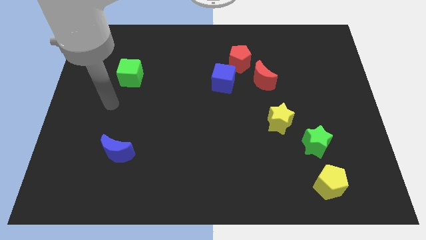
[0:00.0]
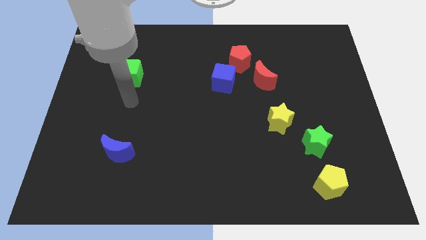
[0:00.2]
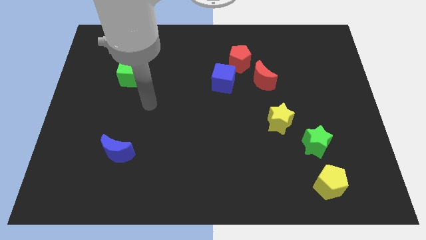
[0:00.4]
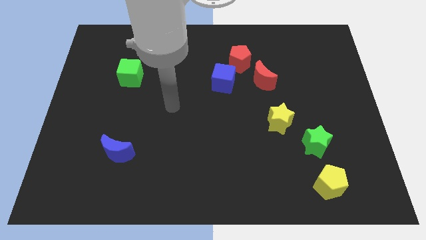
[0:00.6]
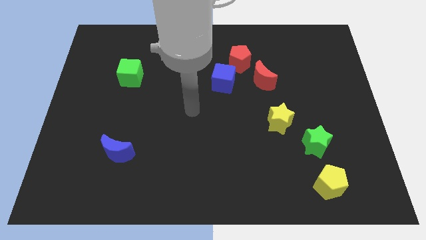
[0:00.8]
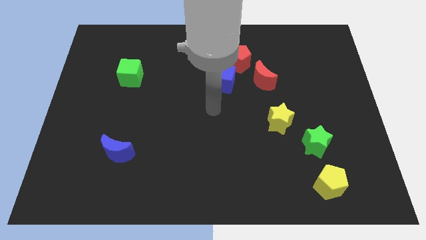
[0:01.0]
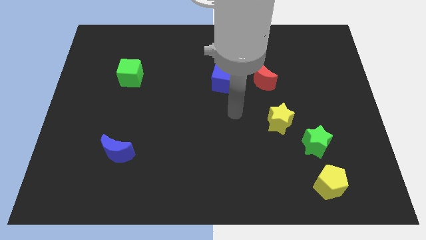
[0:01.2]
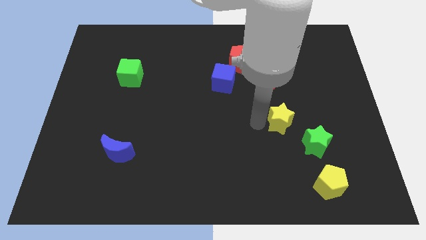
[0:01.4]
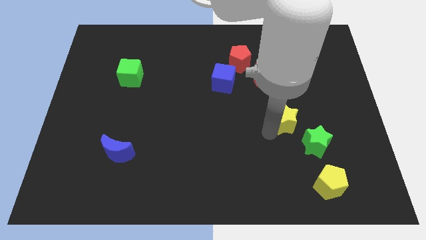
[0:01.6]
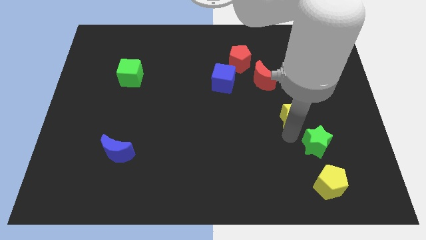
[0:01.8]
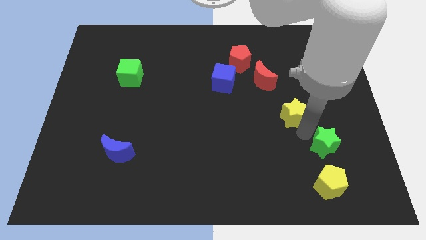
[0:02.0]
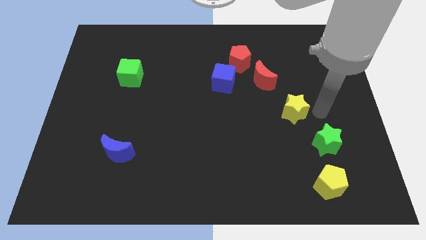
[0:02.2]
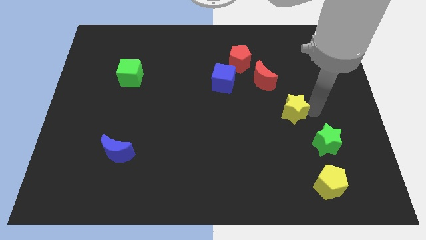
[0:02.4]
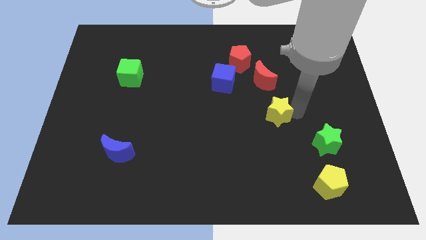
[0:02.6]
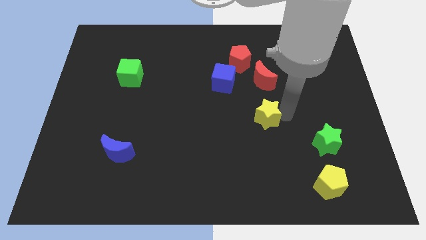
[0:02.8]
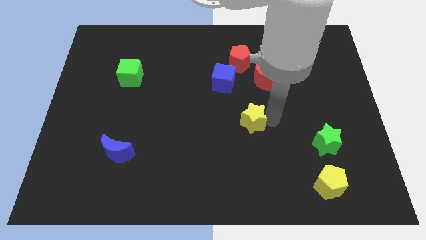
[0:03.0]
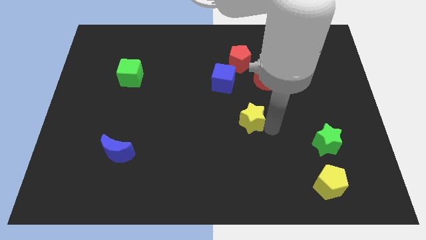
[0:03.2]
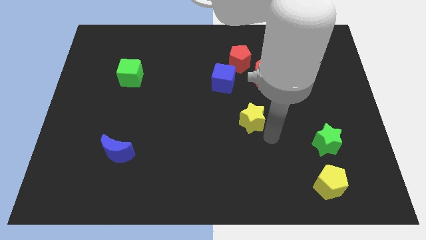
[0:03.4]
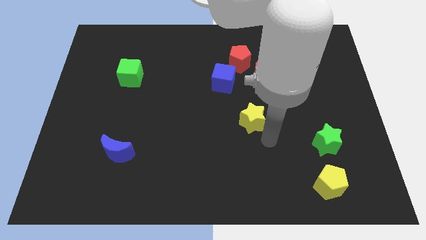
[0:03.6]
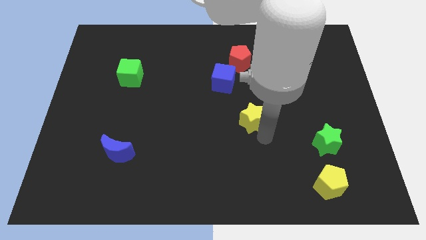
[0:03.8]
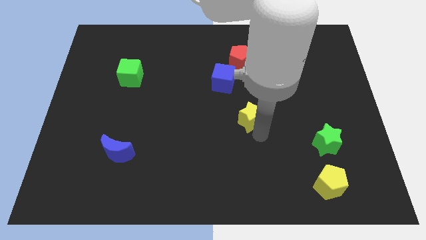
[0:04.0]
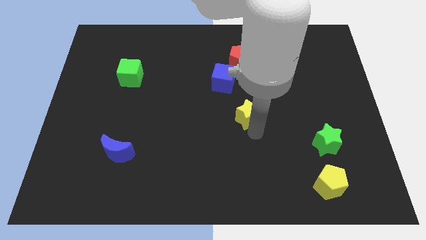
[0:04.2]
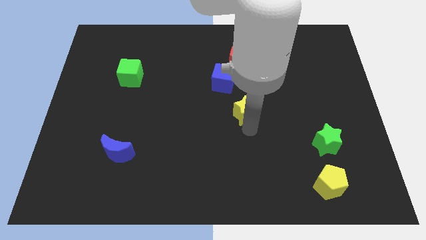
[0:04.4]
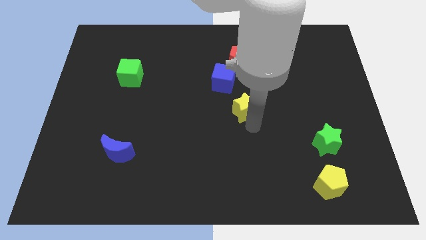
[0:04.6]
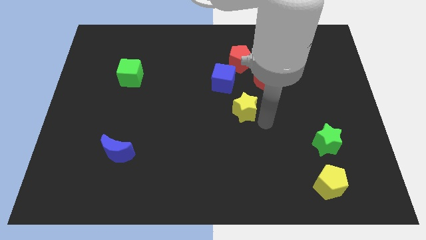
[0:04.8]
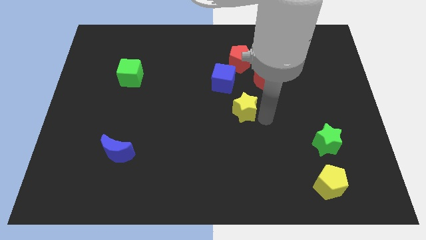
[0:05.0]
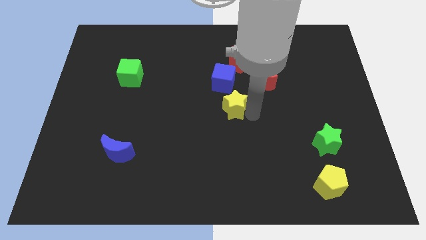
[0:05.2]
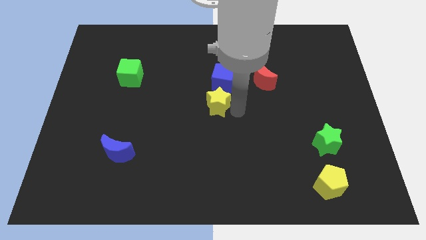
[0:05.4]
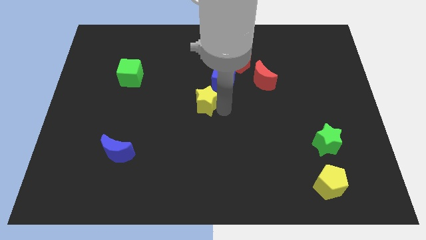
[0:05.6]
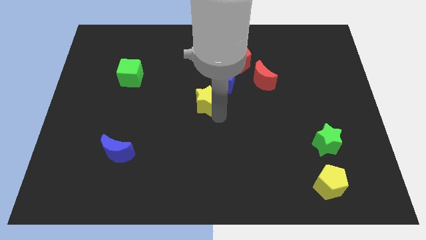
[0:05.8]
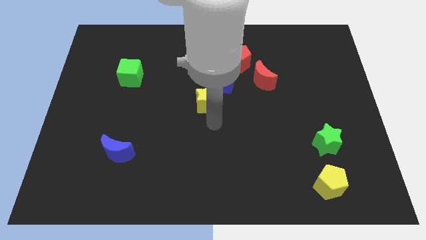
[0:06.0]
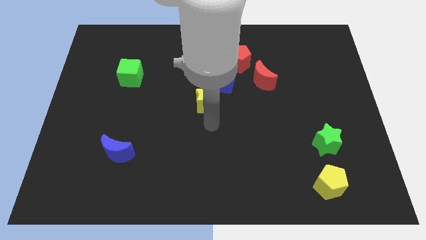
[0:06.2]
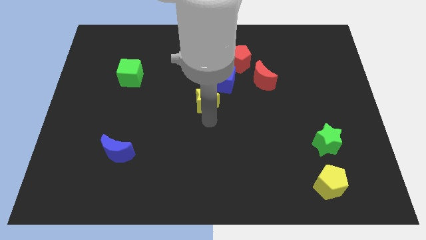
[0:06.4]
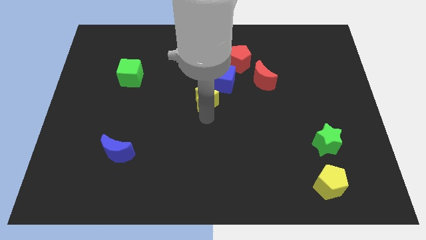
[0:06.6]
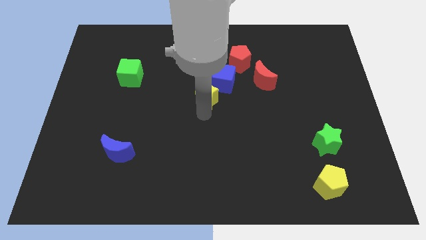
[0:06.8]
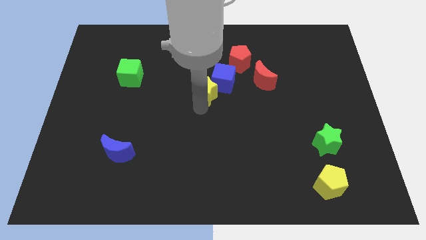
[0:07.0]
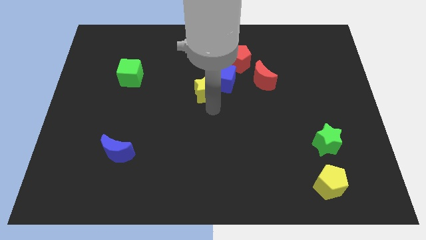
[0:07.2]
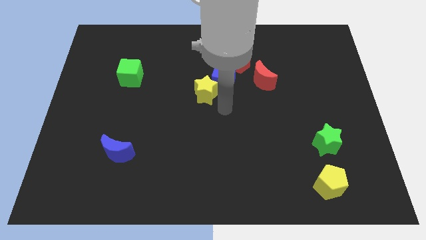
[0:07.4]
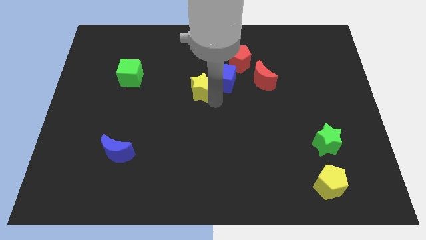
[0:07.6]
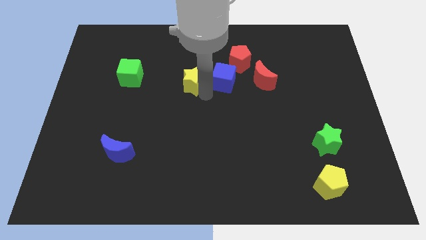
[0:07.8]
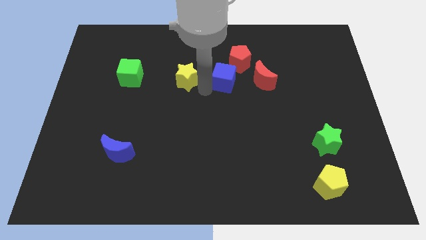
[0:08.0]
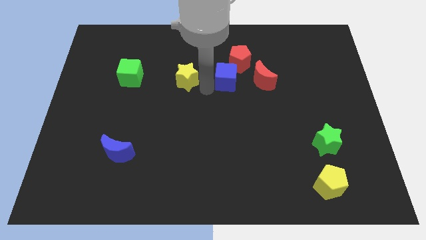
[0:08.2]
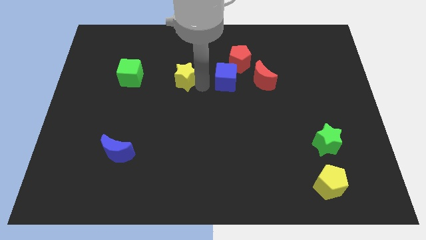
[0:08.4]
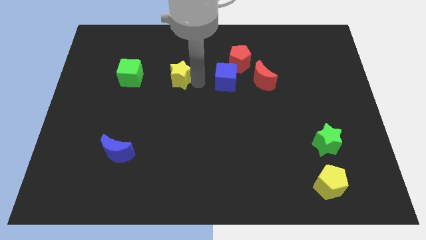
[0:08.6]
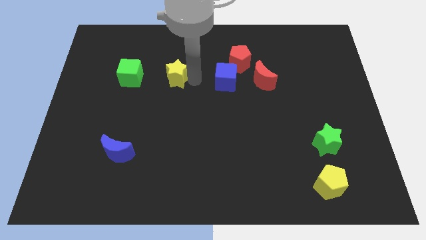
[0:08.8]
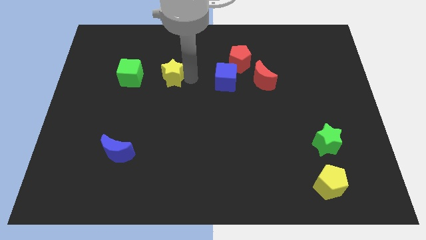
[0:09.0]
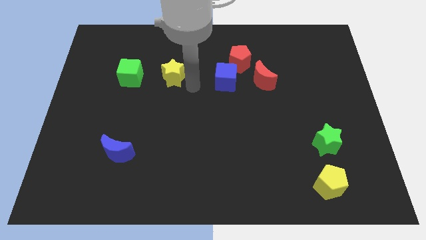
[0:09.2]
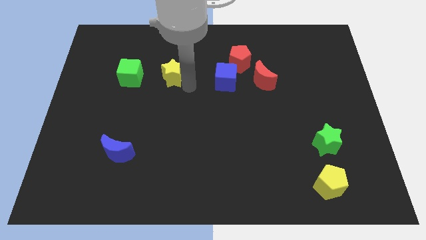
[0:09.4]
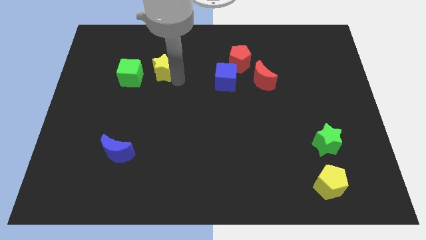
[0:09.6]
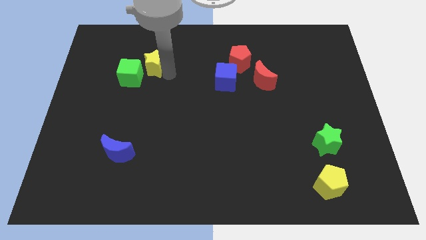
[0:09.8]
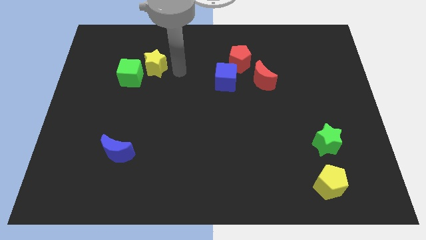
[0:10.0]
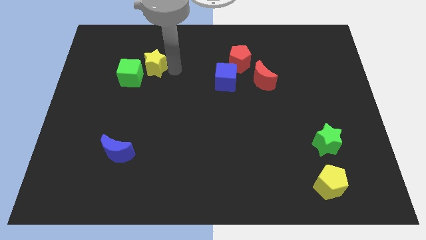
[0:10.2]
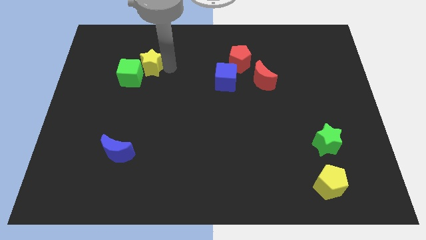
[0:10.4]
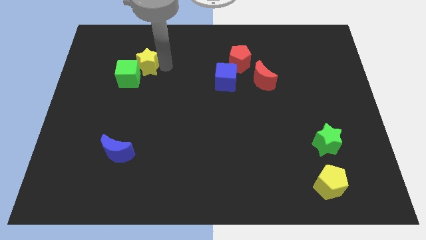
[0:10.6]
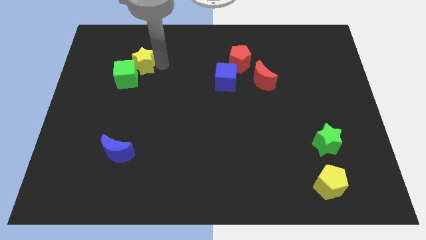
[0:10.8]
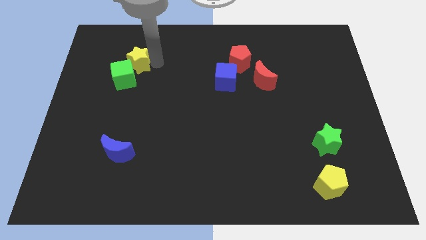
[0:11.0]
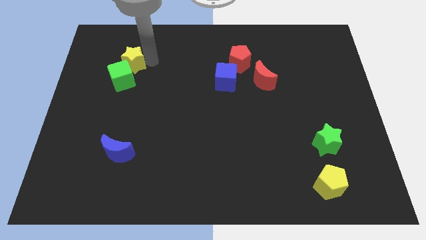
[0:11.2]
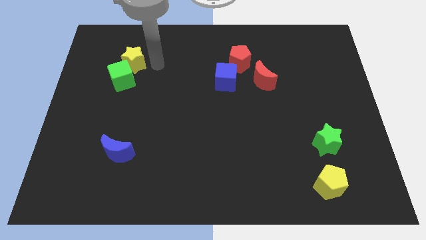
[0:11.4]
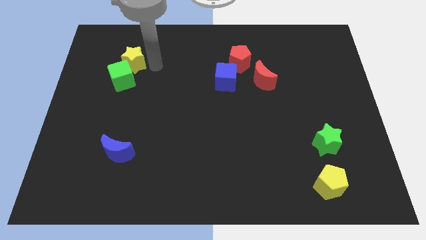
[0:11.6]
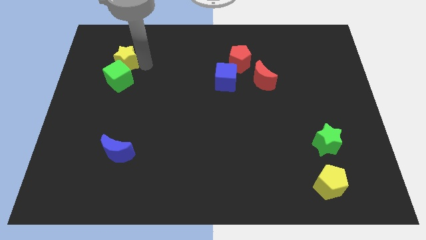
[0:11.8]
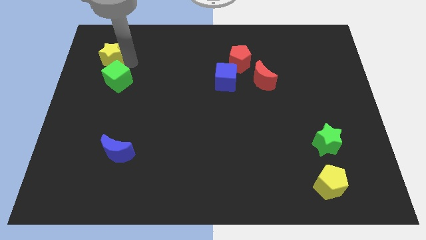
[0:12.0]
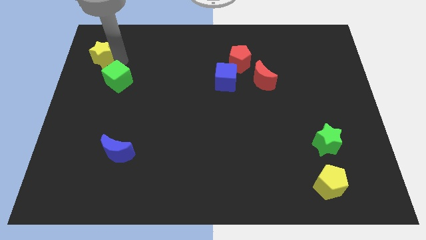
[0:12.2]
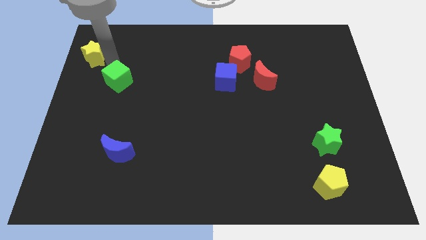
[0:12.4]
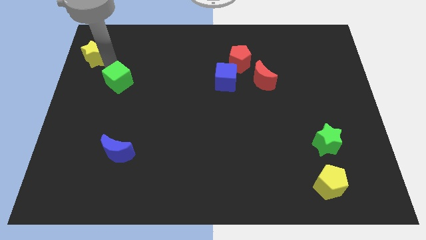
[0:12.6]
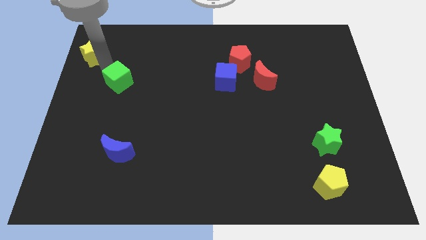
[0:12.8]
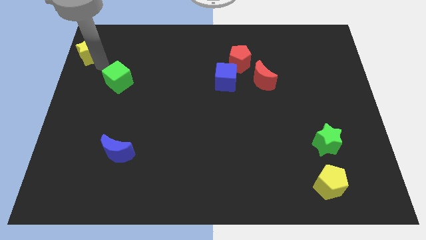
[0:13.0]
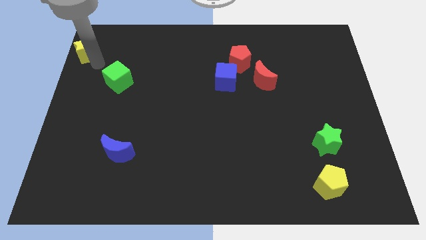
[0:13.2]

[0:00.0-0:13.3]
move the yellow star to the upper left corner
